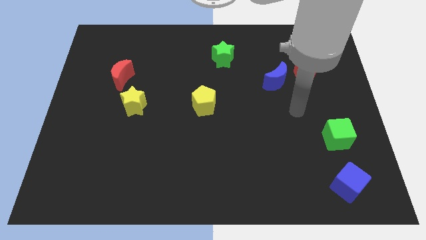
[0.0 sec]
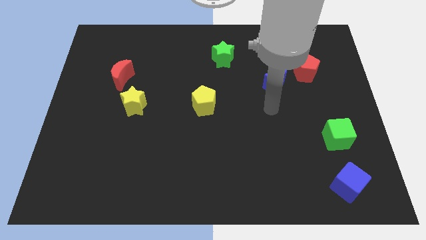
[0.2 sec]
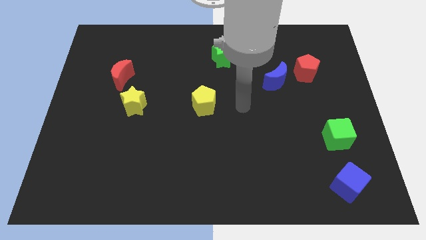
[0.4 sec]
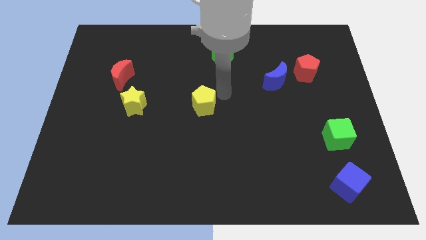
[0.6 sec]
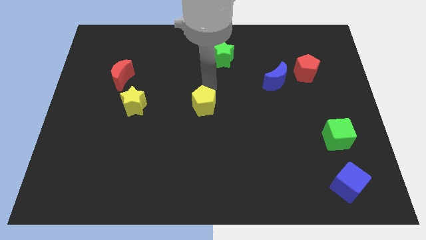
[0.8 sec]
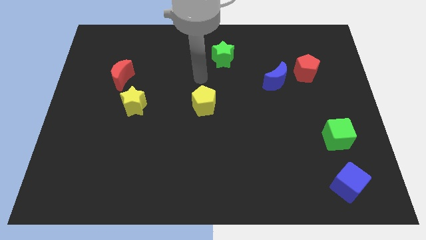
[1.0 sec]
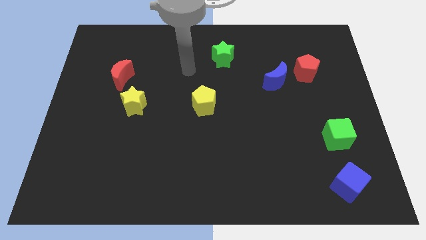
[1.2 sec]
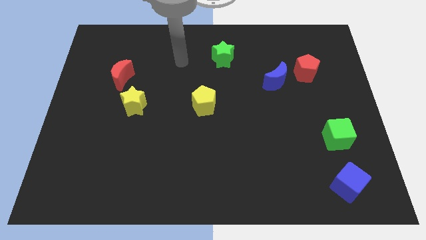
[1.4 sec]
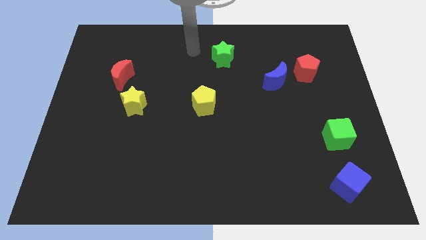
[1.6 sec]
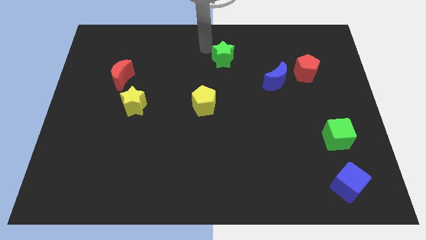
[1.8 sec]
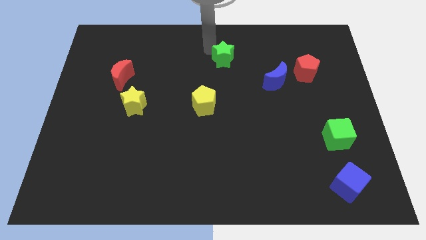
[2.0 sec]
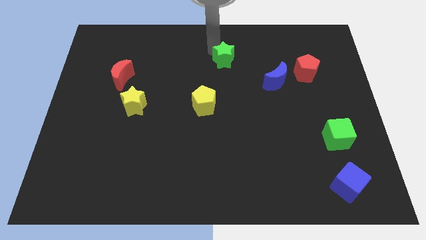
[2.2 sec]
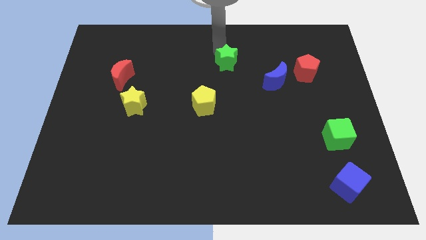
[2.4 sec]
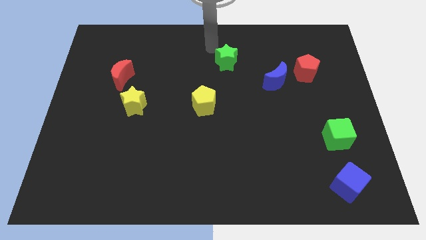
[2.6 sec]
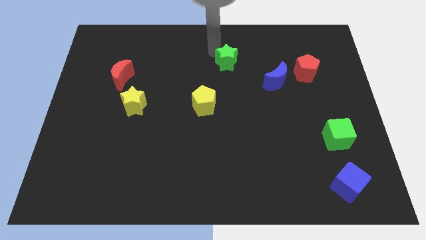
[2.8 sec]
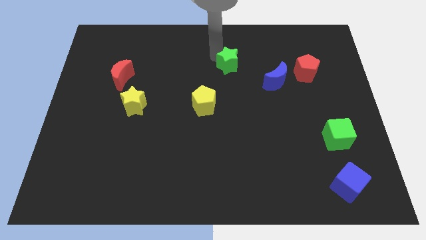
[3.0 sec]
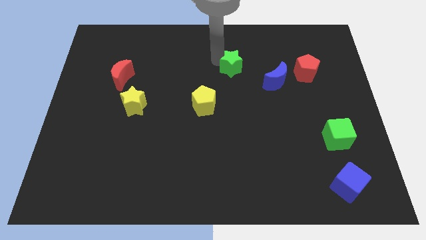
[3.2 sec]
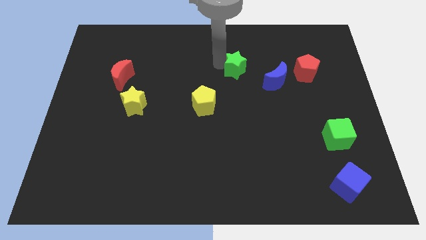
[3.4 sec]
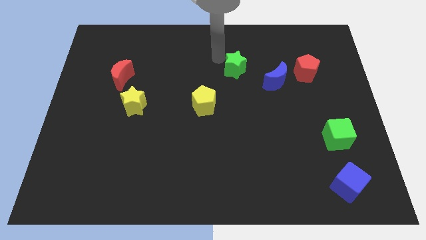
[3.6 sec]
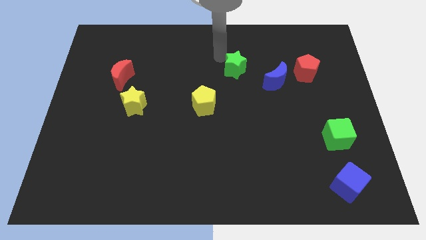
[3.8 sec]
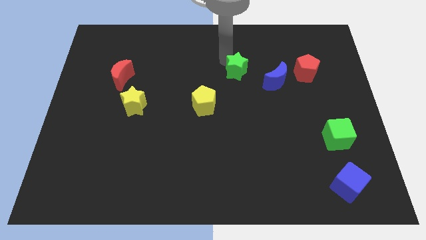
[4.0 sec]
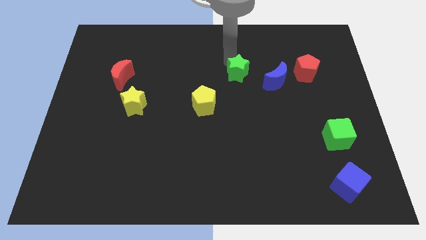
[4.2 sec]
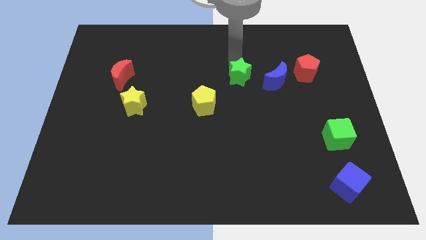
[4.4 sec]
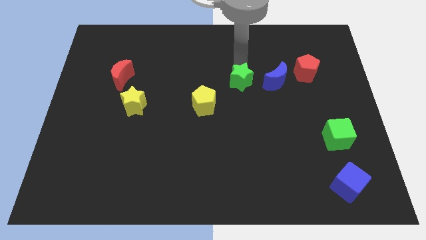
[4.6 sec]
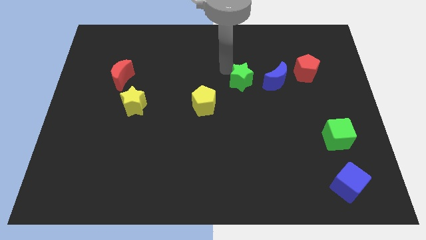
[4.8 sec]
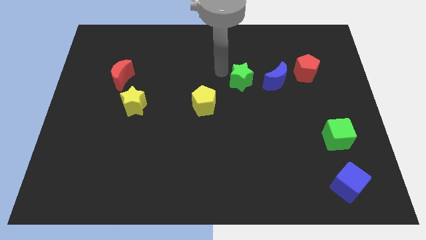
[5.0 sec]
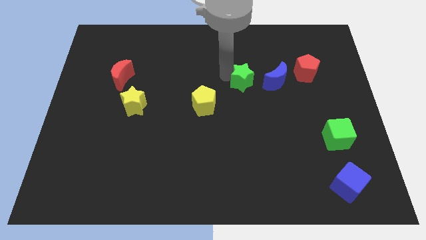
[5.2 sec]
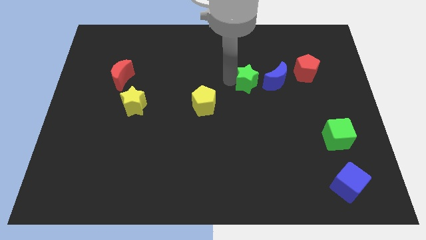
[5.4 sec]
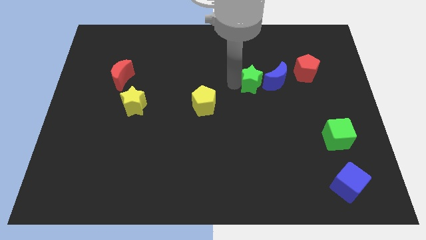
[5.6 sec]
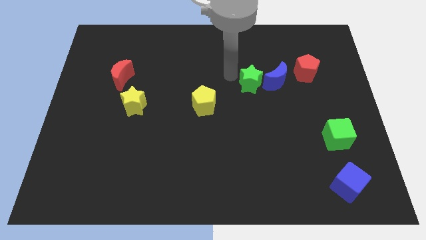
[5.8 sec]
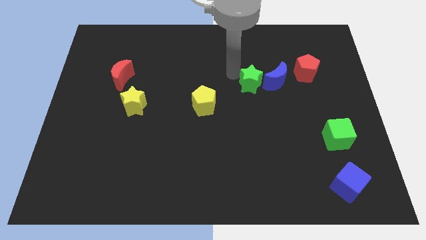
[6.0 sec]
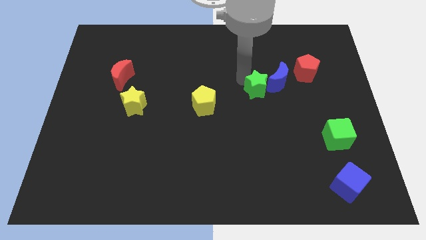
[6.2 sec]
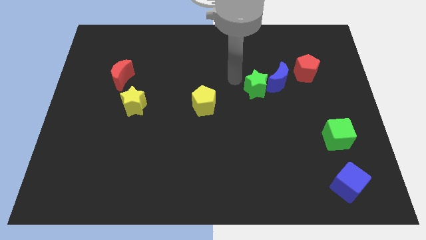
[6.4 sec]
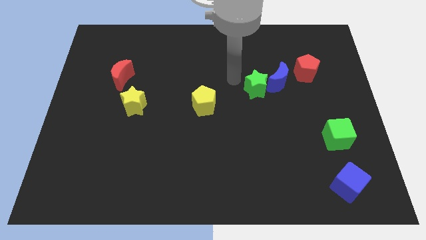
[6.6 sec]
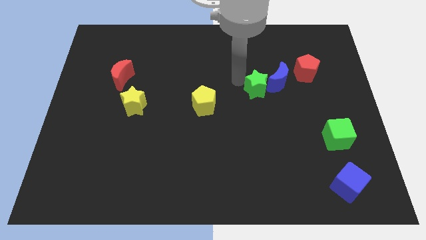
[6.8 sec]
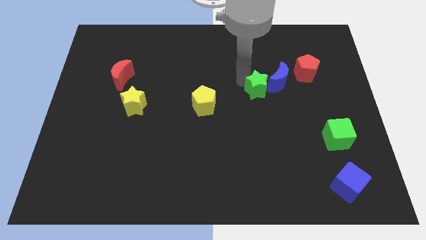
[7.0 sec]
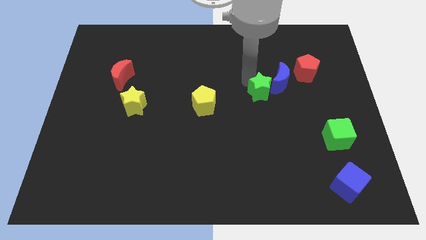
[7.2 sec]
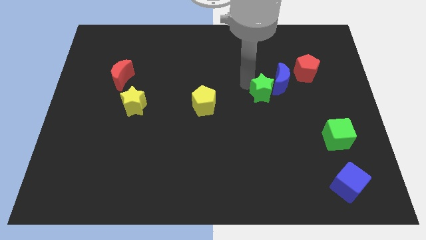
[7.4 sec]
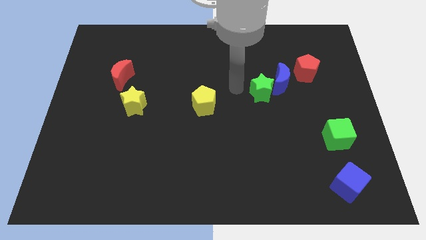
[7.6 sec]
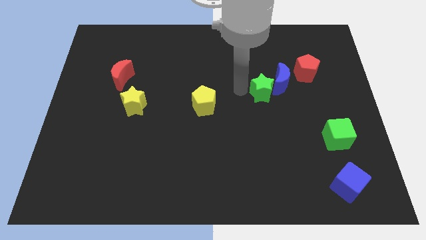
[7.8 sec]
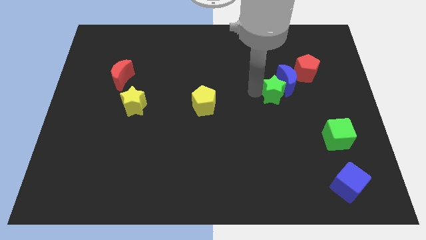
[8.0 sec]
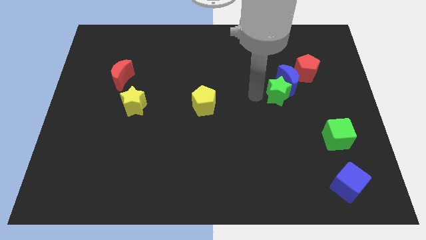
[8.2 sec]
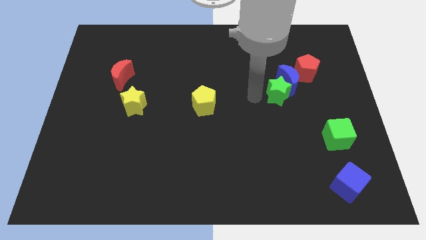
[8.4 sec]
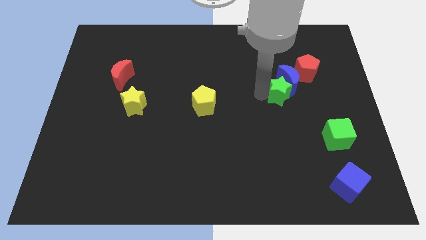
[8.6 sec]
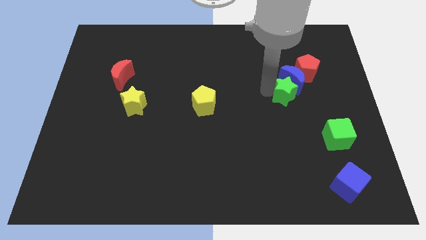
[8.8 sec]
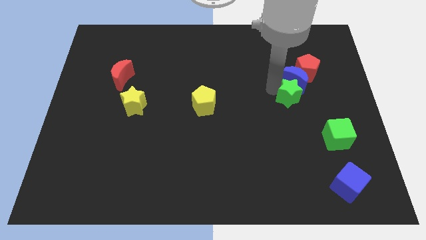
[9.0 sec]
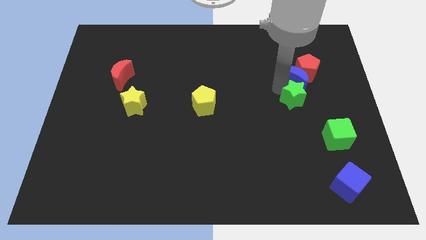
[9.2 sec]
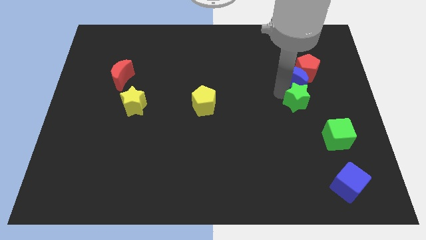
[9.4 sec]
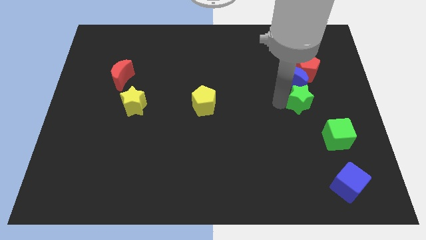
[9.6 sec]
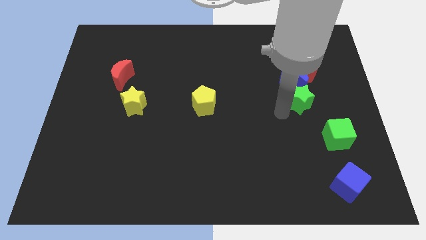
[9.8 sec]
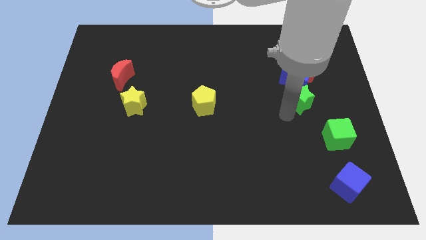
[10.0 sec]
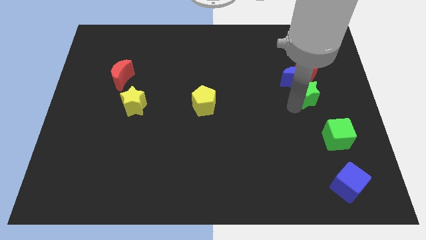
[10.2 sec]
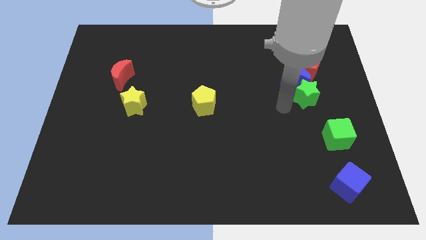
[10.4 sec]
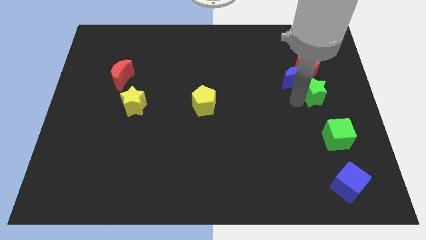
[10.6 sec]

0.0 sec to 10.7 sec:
slide the green star just right of the blue moon

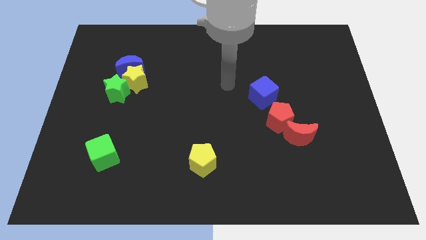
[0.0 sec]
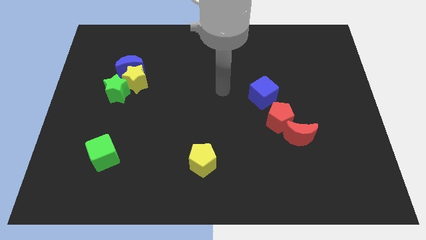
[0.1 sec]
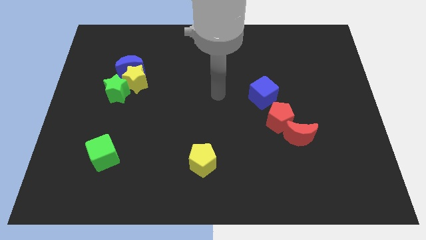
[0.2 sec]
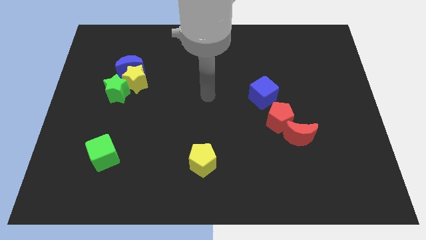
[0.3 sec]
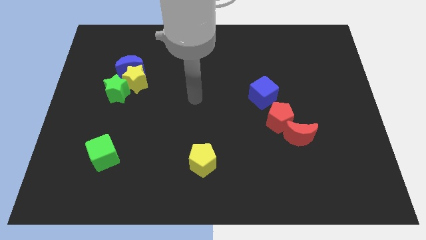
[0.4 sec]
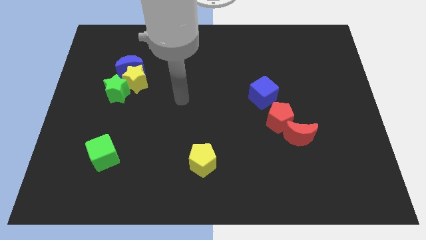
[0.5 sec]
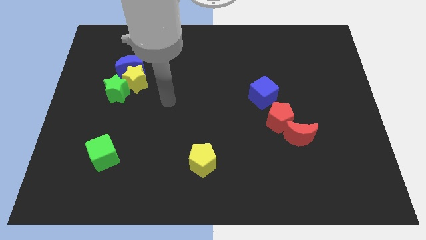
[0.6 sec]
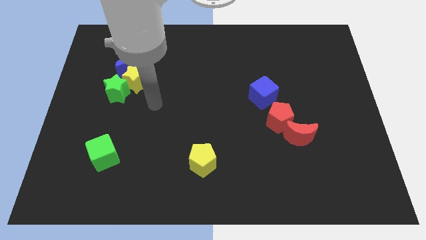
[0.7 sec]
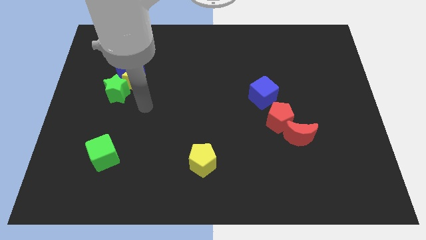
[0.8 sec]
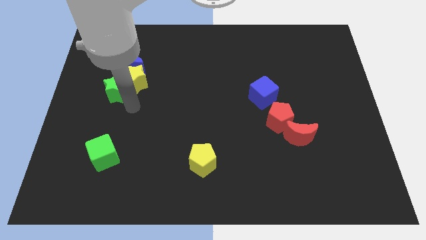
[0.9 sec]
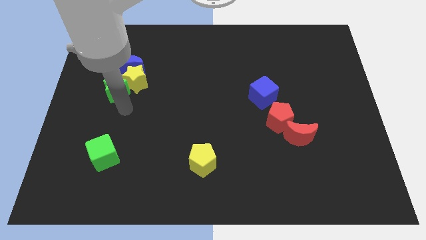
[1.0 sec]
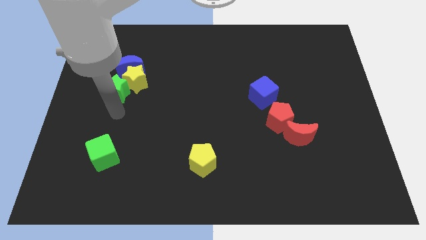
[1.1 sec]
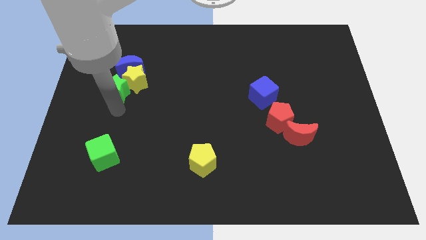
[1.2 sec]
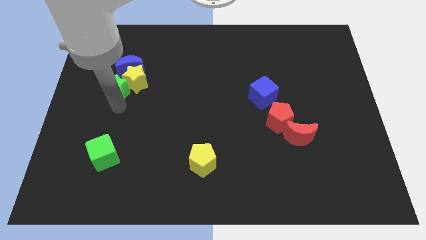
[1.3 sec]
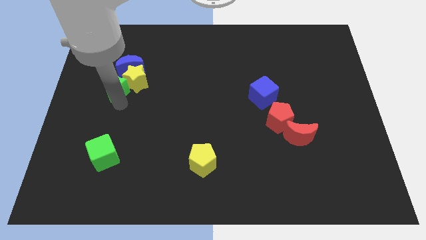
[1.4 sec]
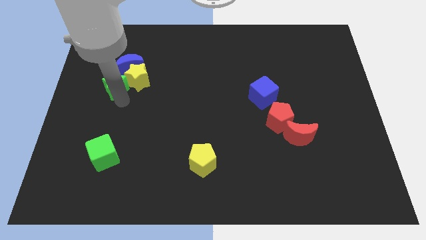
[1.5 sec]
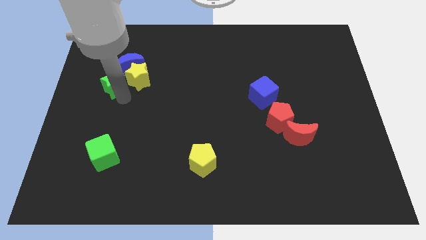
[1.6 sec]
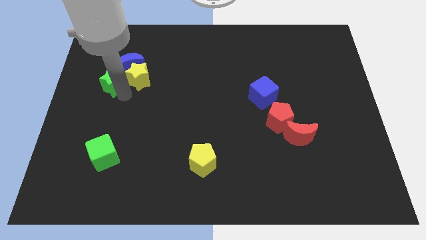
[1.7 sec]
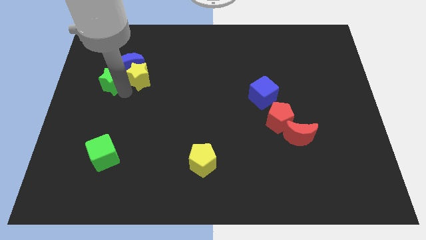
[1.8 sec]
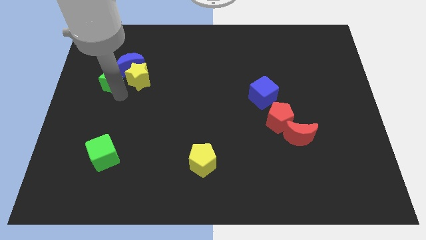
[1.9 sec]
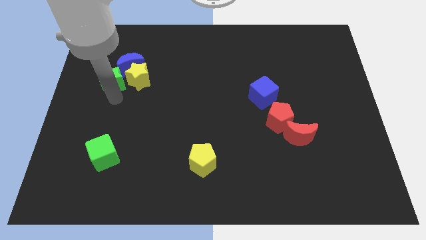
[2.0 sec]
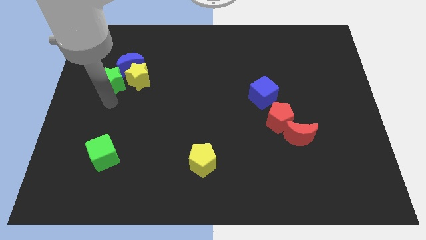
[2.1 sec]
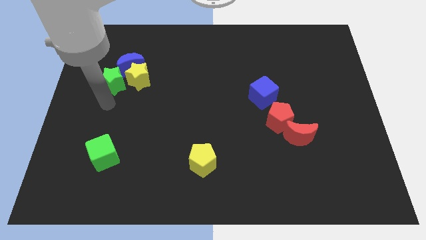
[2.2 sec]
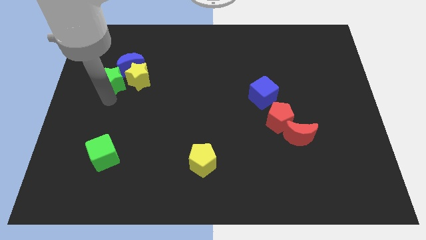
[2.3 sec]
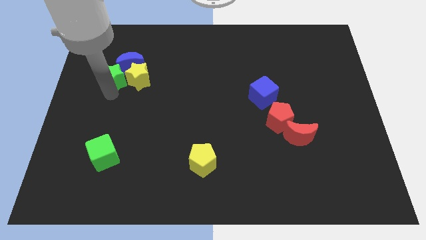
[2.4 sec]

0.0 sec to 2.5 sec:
slide the green star to the top left side of the yellow star
